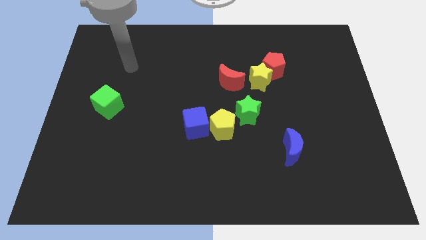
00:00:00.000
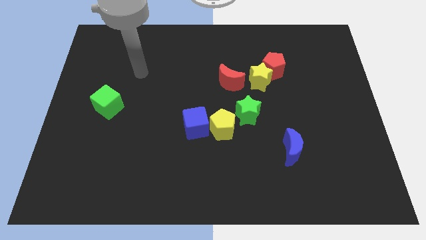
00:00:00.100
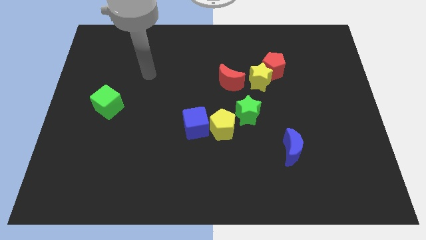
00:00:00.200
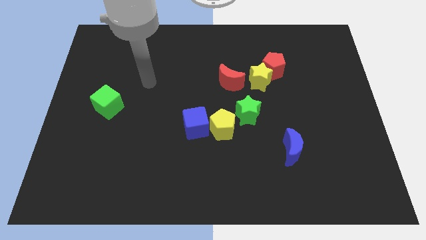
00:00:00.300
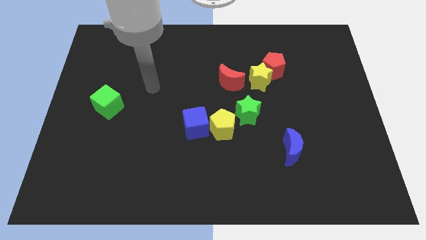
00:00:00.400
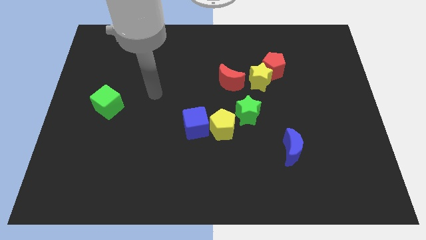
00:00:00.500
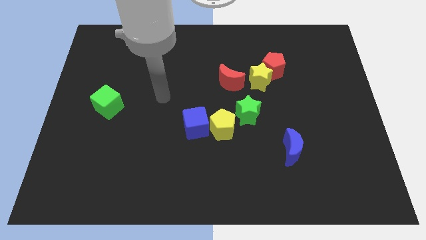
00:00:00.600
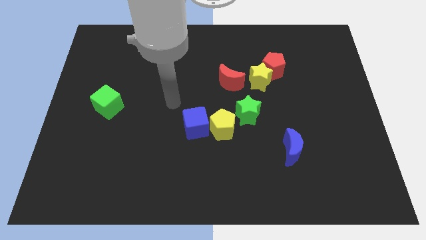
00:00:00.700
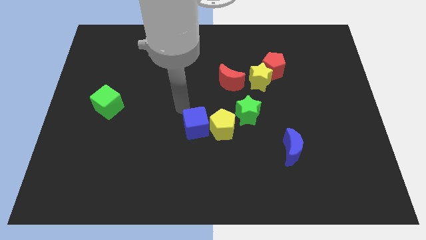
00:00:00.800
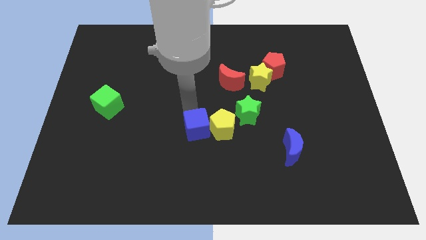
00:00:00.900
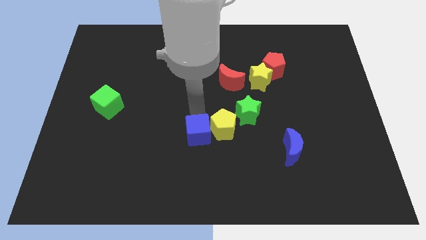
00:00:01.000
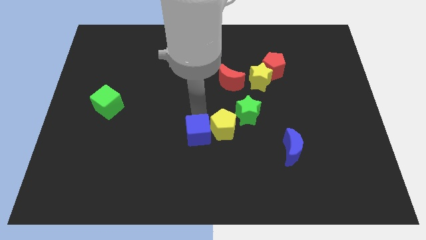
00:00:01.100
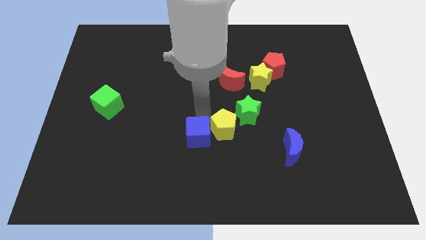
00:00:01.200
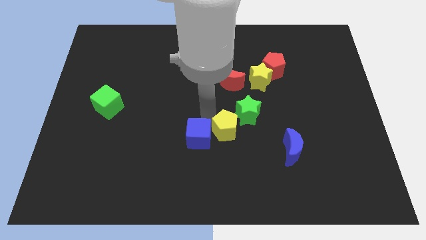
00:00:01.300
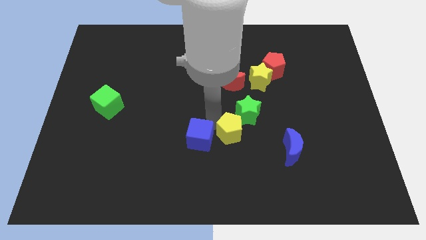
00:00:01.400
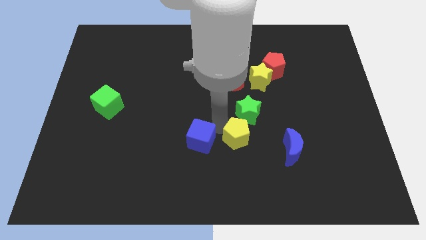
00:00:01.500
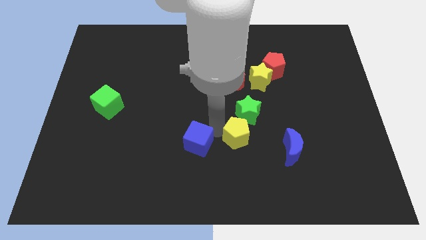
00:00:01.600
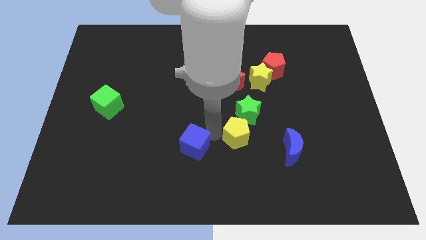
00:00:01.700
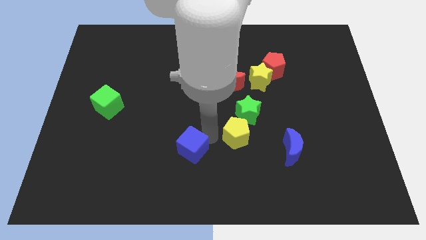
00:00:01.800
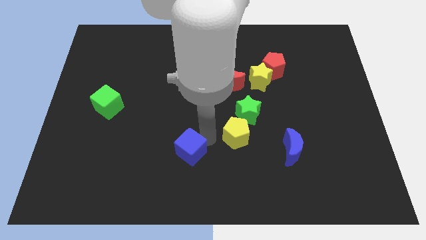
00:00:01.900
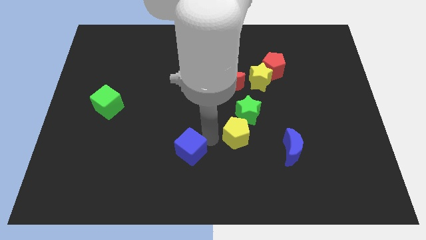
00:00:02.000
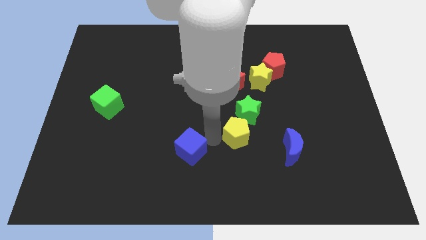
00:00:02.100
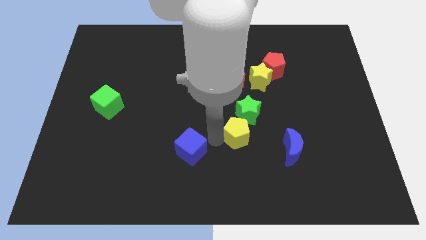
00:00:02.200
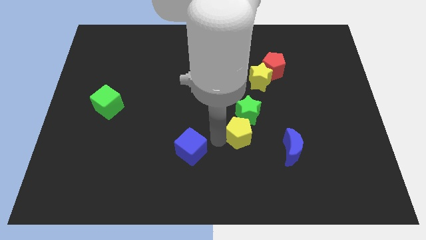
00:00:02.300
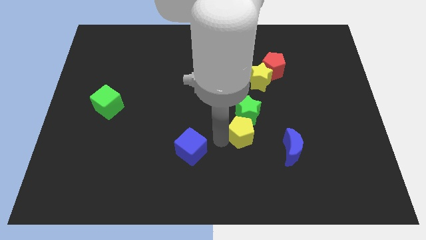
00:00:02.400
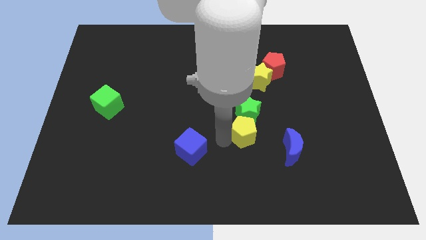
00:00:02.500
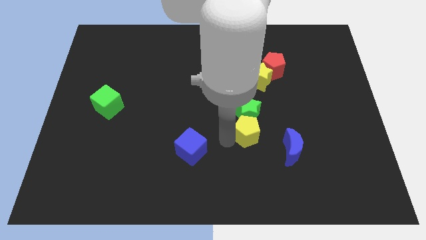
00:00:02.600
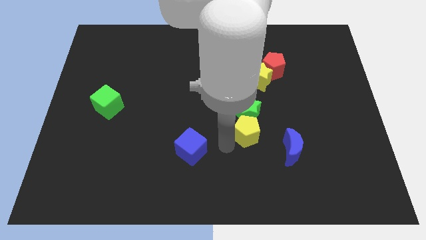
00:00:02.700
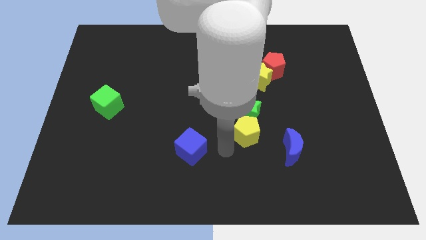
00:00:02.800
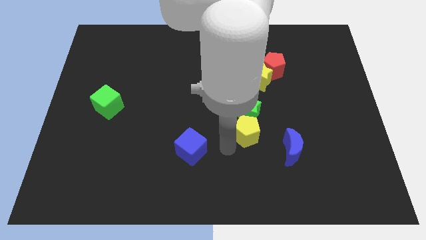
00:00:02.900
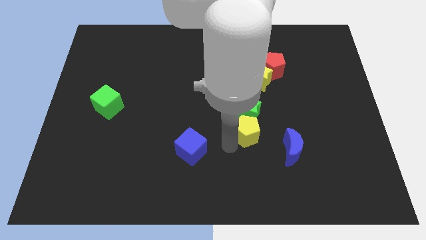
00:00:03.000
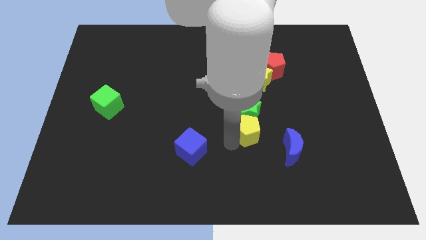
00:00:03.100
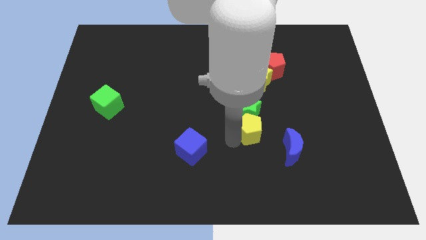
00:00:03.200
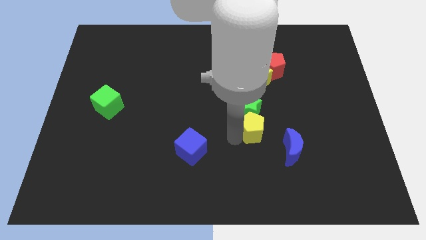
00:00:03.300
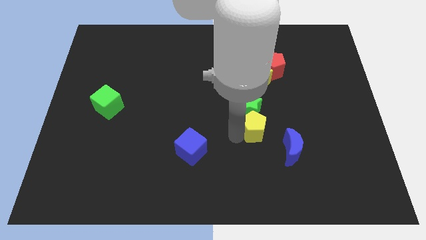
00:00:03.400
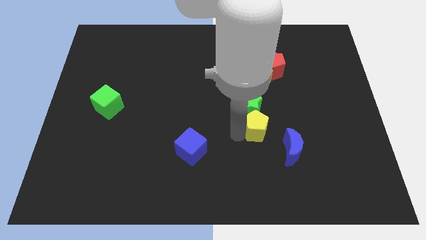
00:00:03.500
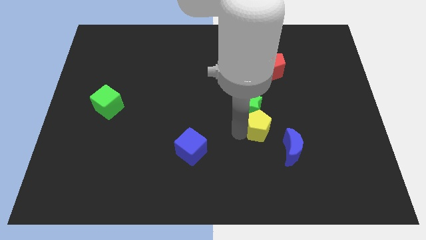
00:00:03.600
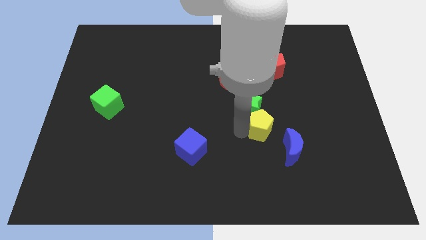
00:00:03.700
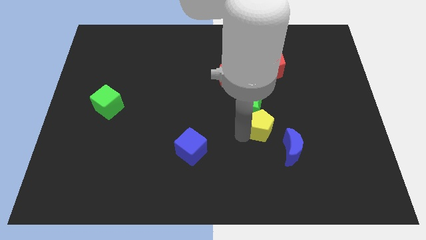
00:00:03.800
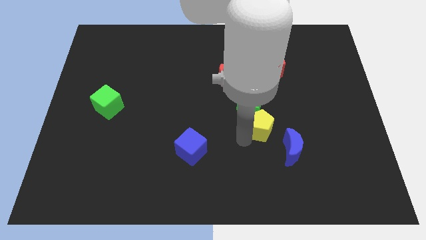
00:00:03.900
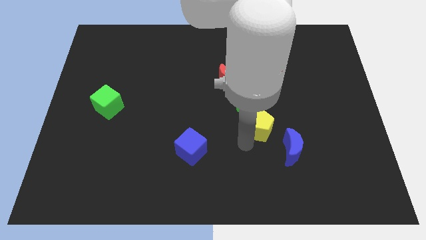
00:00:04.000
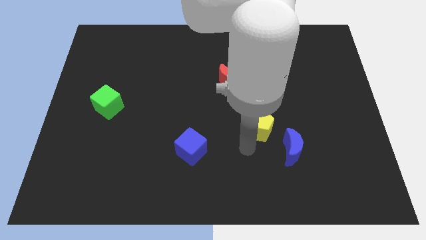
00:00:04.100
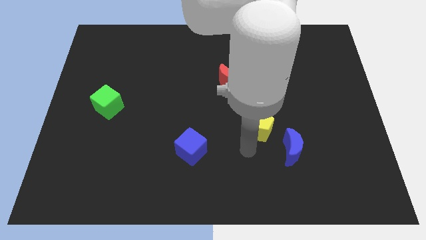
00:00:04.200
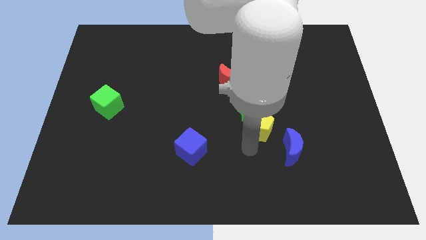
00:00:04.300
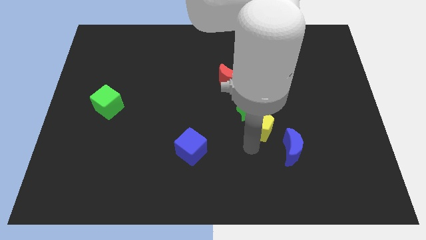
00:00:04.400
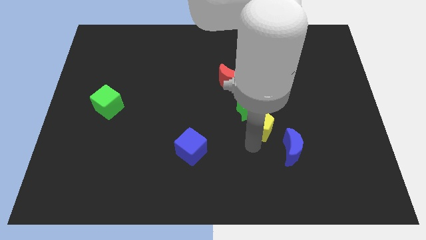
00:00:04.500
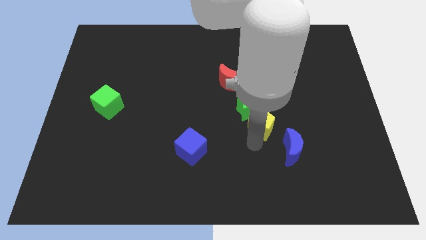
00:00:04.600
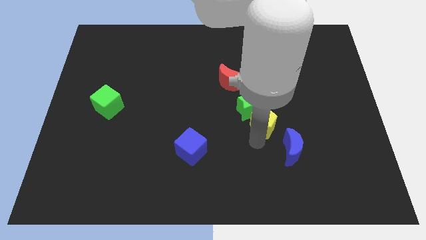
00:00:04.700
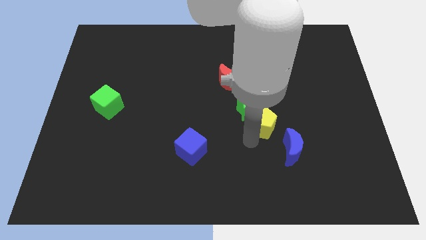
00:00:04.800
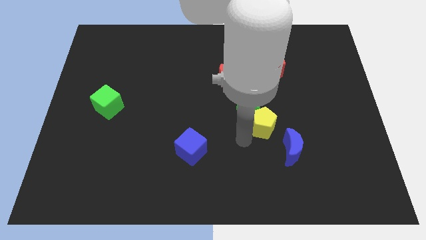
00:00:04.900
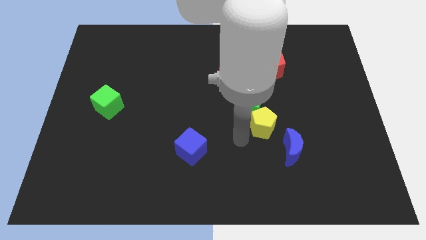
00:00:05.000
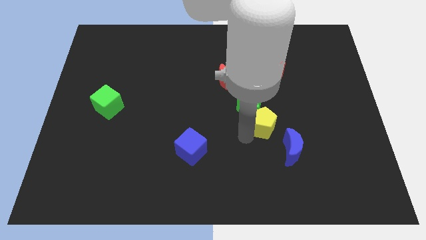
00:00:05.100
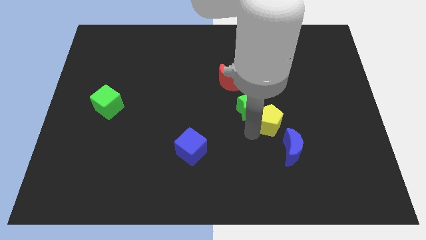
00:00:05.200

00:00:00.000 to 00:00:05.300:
put the yellow pentagon above the blue moon

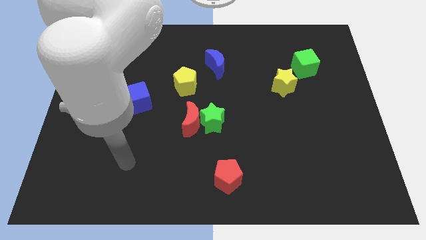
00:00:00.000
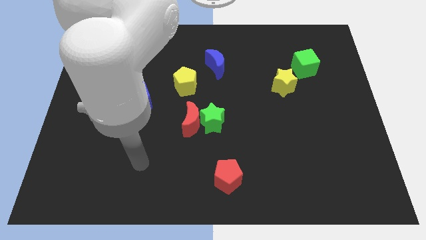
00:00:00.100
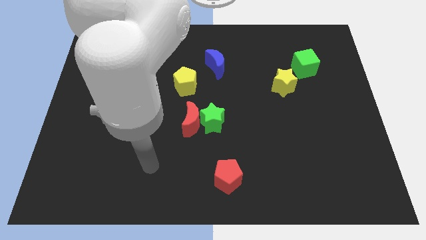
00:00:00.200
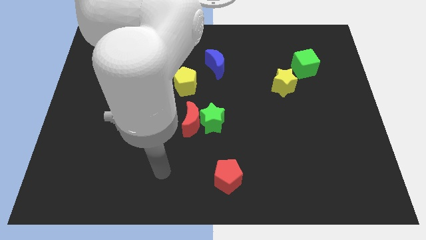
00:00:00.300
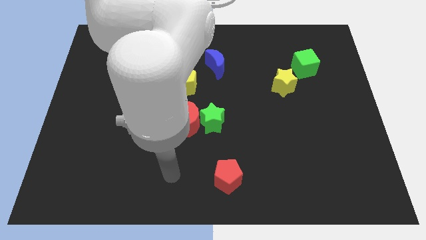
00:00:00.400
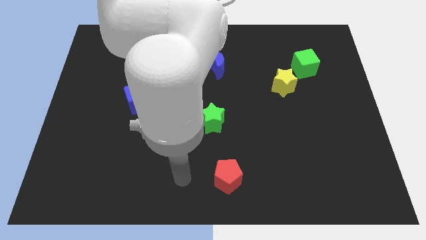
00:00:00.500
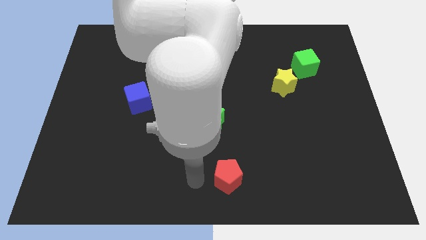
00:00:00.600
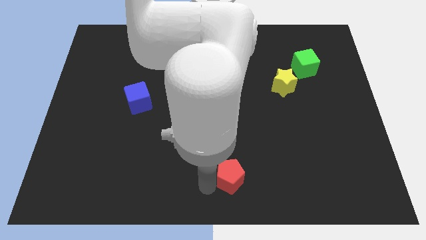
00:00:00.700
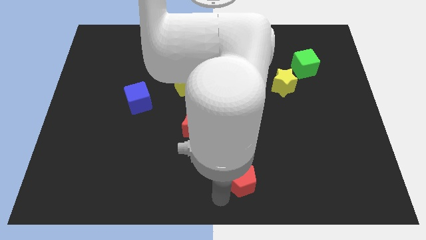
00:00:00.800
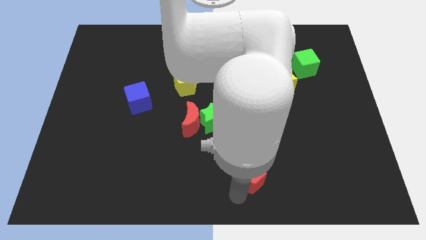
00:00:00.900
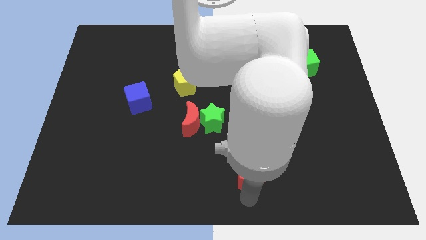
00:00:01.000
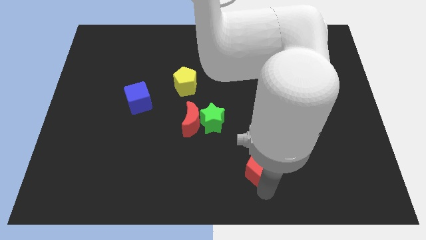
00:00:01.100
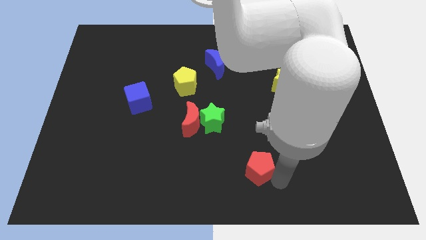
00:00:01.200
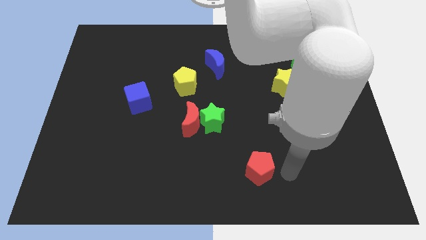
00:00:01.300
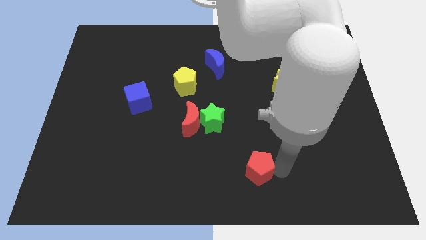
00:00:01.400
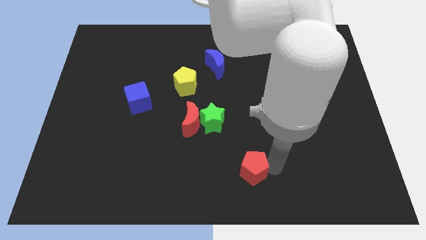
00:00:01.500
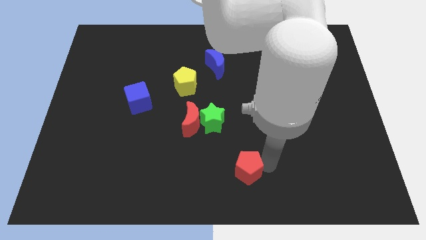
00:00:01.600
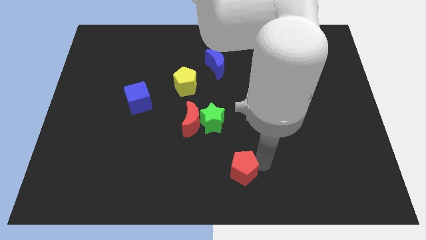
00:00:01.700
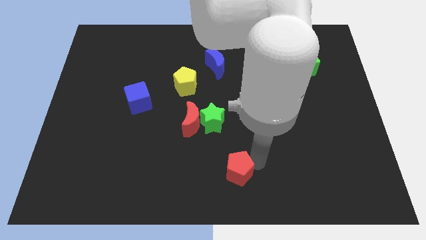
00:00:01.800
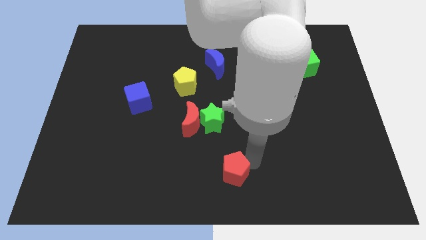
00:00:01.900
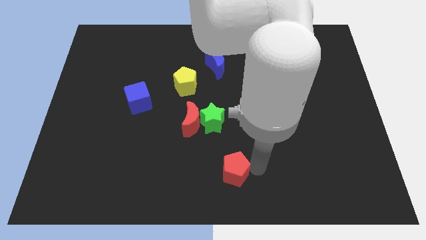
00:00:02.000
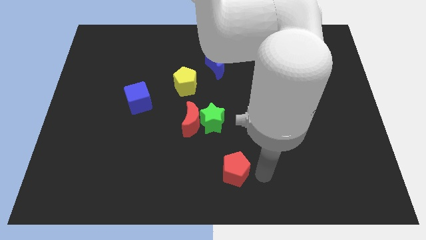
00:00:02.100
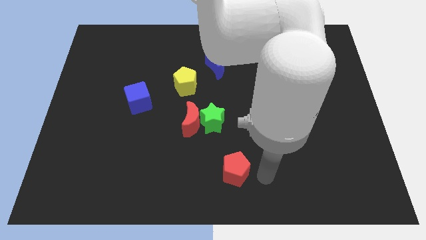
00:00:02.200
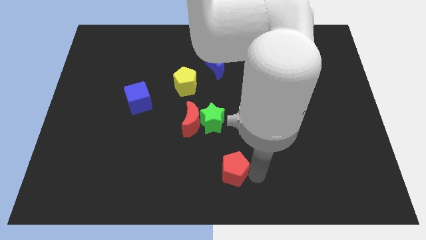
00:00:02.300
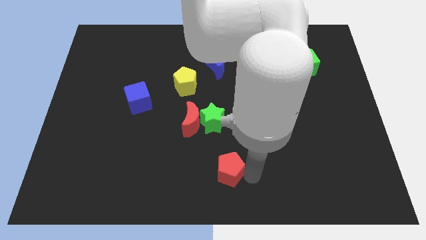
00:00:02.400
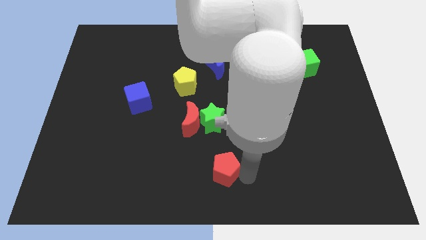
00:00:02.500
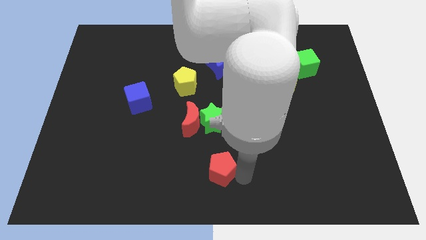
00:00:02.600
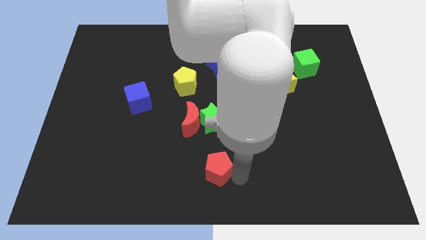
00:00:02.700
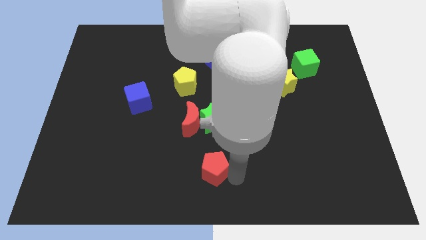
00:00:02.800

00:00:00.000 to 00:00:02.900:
slide the red pentagon to the bottom side of the red moon
